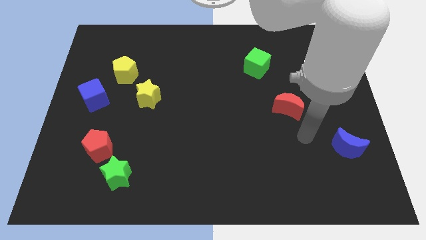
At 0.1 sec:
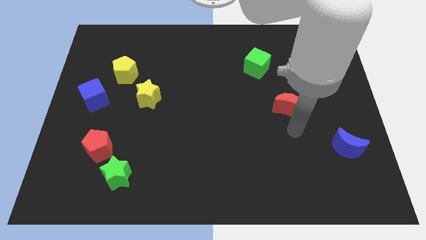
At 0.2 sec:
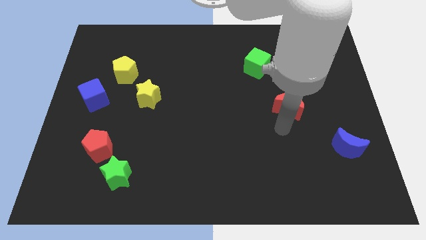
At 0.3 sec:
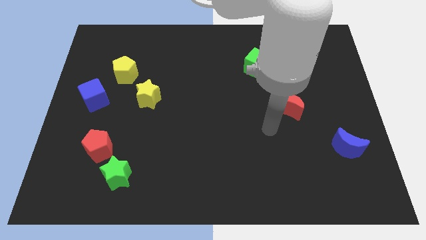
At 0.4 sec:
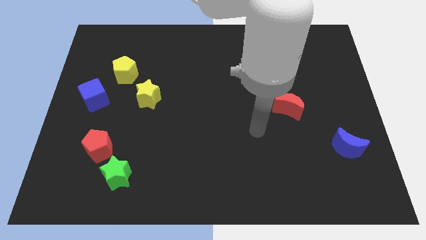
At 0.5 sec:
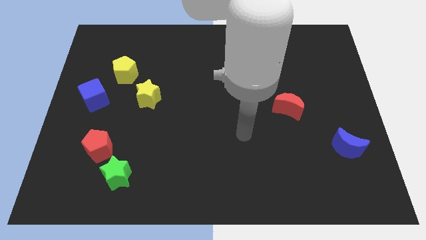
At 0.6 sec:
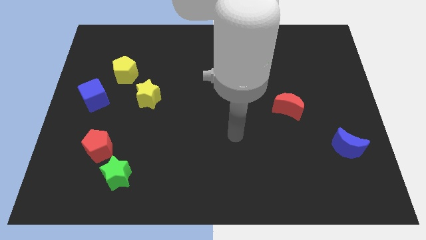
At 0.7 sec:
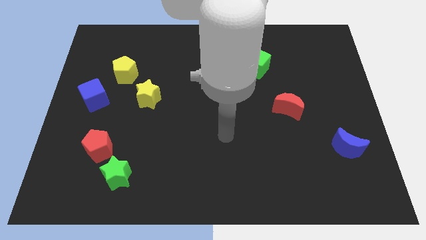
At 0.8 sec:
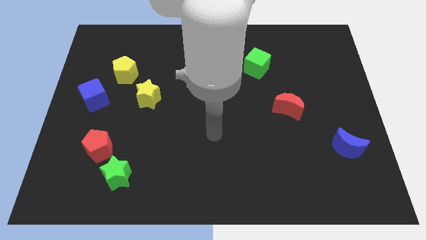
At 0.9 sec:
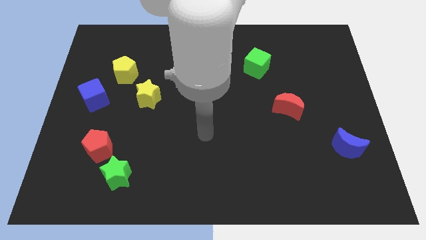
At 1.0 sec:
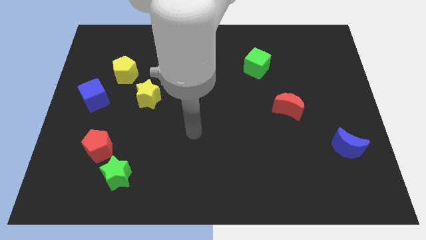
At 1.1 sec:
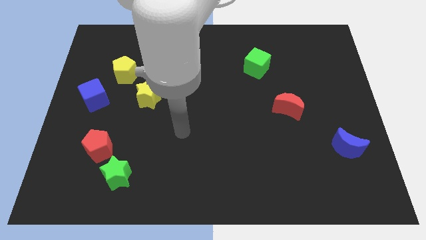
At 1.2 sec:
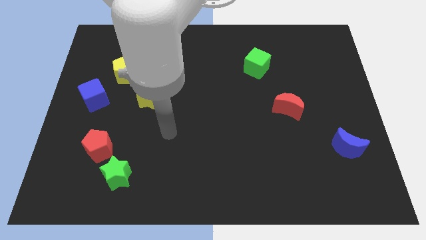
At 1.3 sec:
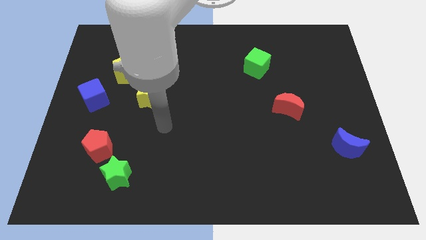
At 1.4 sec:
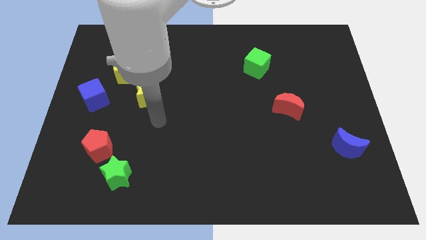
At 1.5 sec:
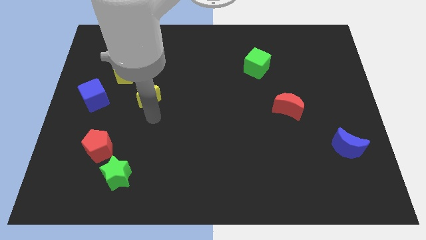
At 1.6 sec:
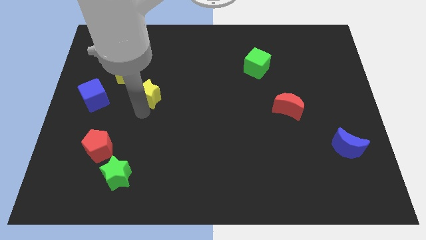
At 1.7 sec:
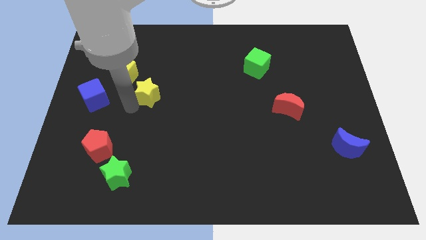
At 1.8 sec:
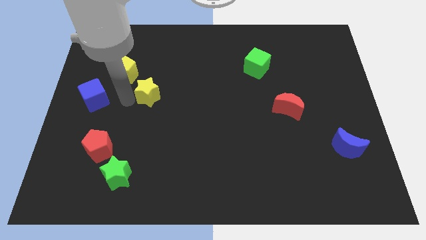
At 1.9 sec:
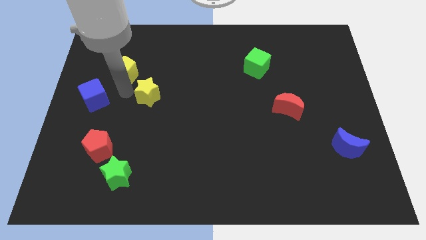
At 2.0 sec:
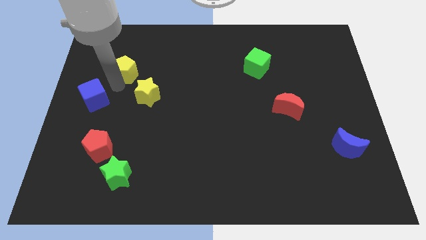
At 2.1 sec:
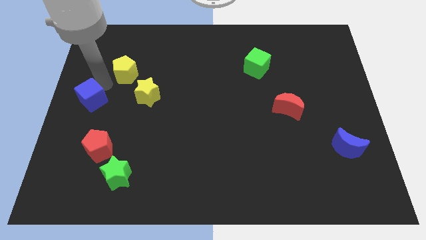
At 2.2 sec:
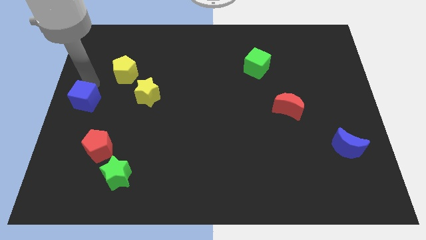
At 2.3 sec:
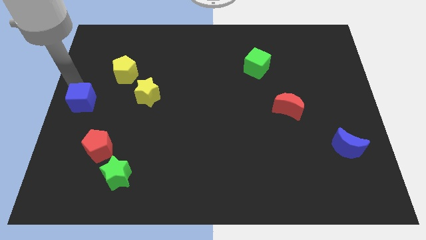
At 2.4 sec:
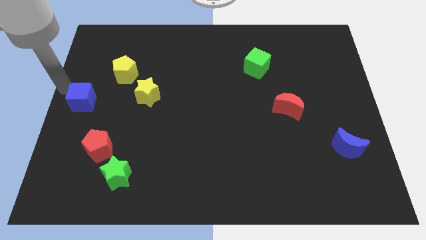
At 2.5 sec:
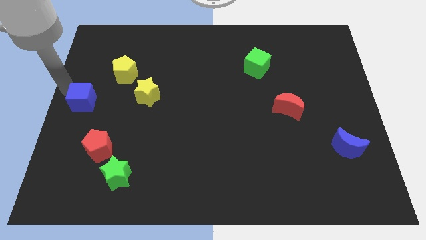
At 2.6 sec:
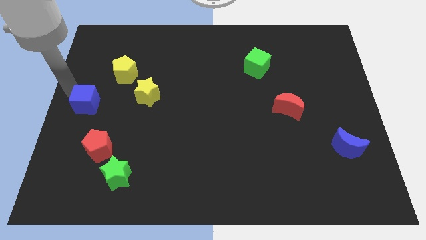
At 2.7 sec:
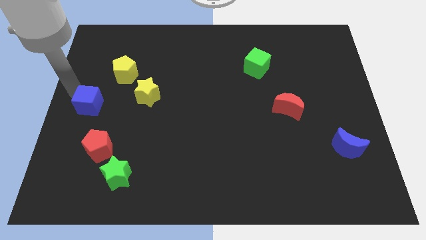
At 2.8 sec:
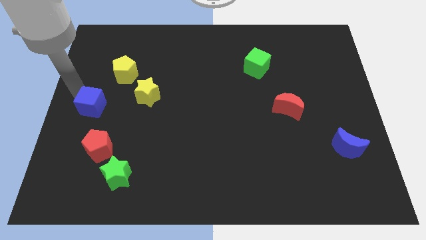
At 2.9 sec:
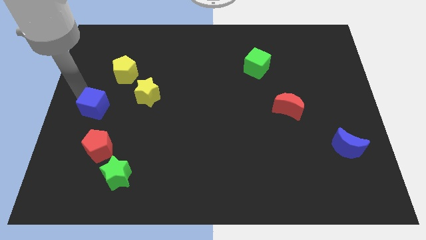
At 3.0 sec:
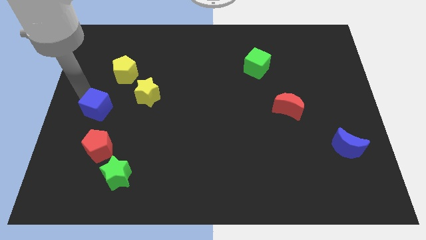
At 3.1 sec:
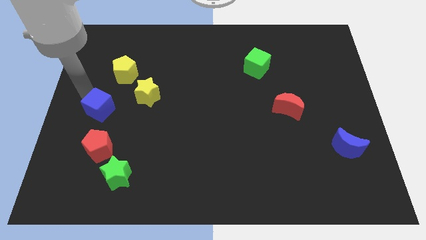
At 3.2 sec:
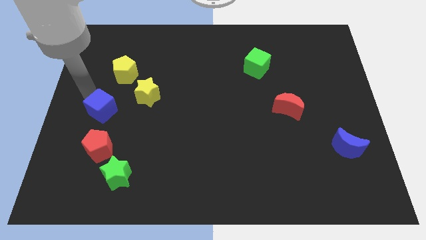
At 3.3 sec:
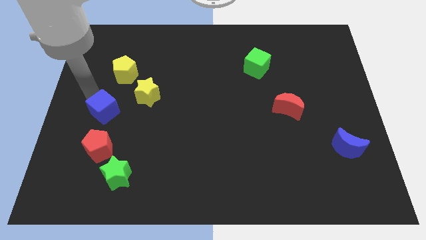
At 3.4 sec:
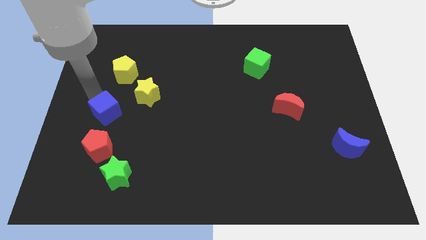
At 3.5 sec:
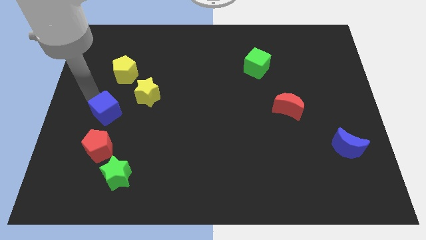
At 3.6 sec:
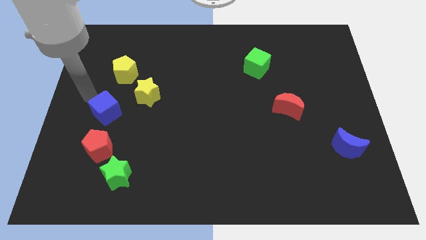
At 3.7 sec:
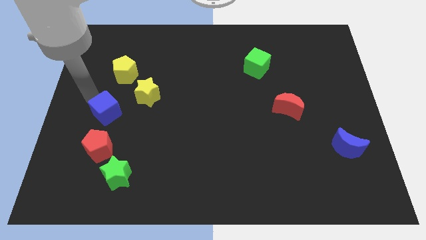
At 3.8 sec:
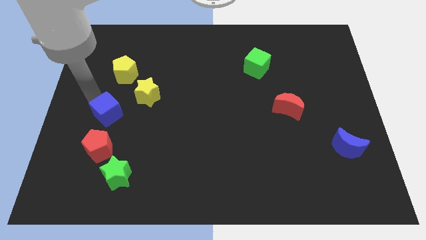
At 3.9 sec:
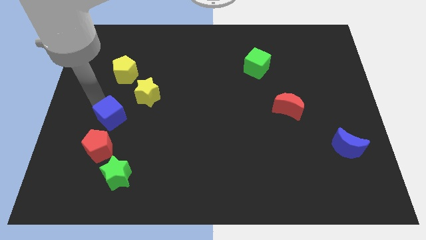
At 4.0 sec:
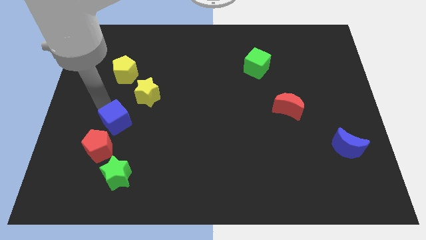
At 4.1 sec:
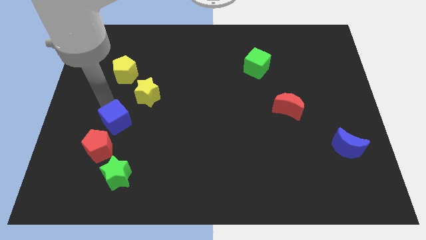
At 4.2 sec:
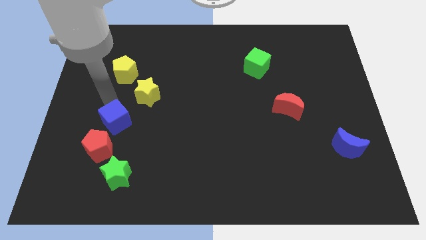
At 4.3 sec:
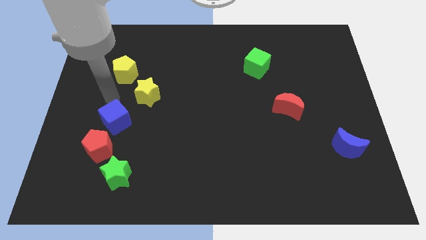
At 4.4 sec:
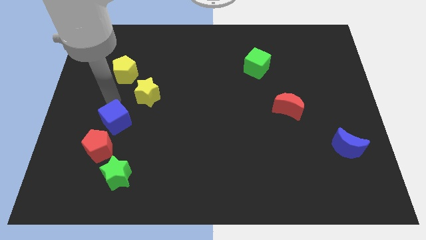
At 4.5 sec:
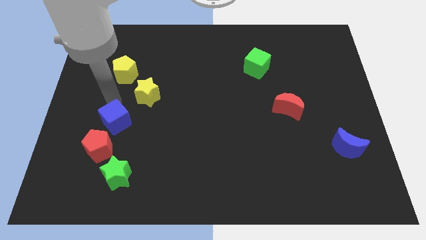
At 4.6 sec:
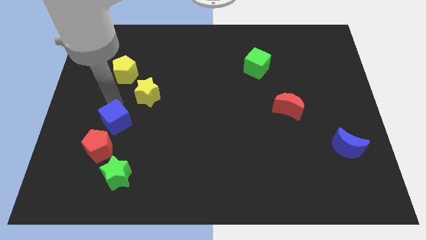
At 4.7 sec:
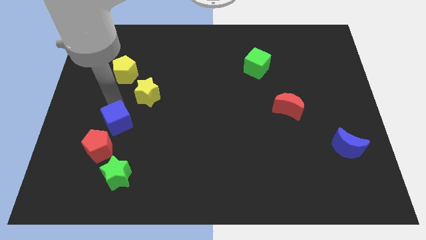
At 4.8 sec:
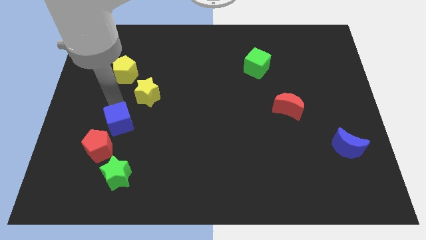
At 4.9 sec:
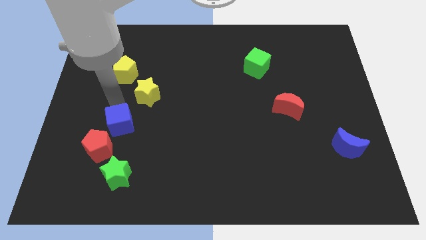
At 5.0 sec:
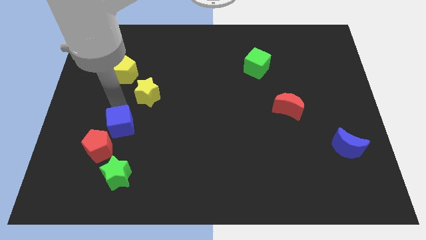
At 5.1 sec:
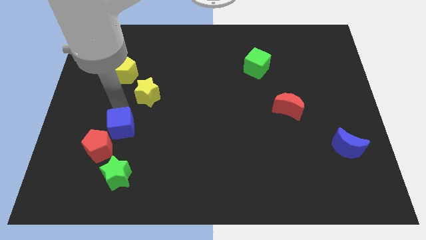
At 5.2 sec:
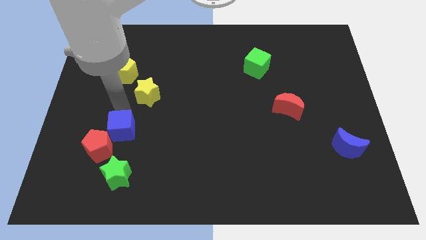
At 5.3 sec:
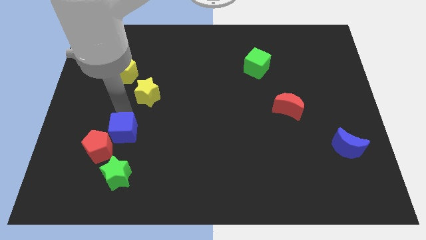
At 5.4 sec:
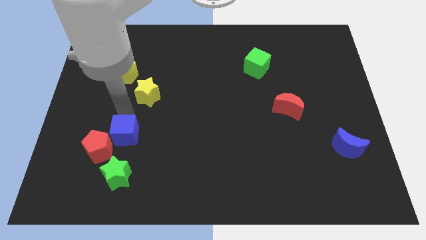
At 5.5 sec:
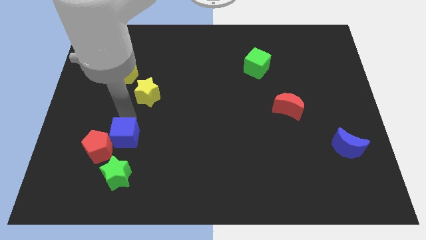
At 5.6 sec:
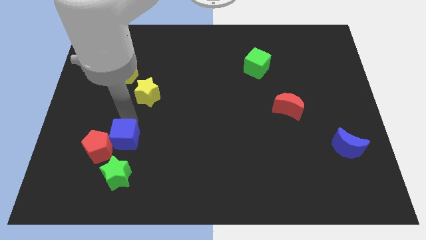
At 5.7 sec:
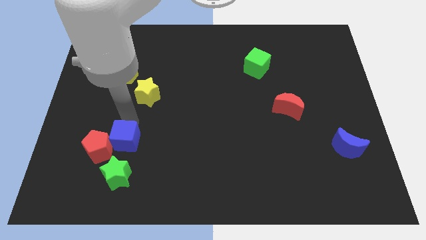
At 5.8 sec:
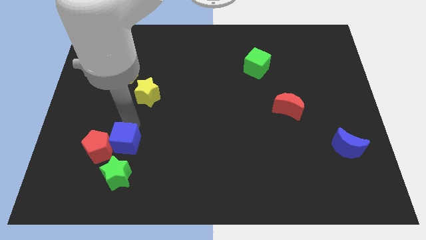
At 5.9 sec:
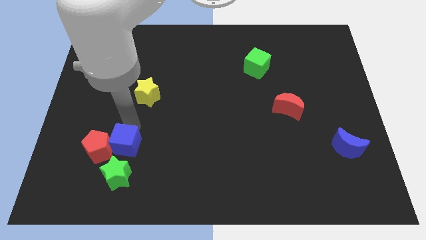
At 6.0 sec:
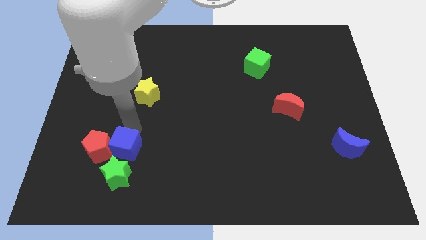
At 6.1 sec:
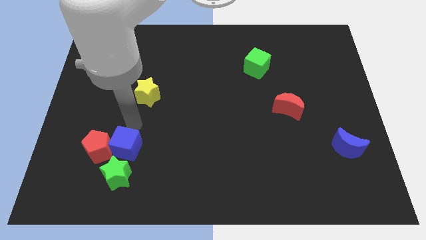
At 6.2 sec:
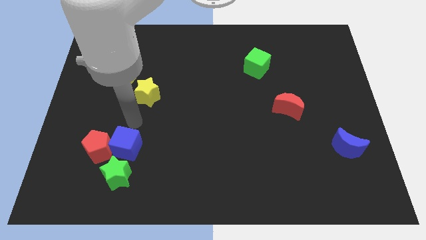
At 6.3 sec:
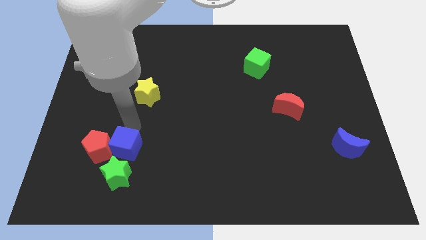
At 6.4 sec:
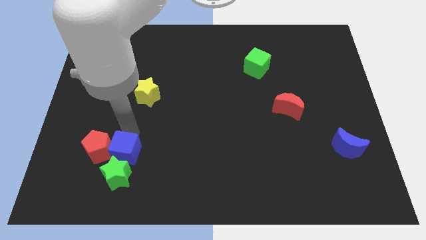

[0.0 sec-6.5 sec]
put the blue cube to the green star
